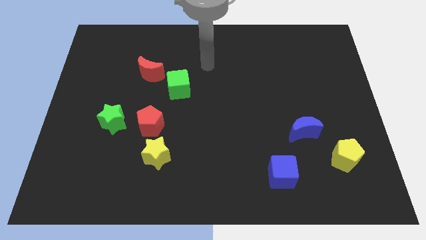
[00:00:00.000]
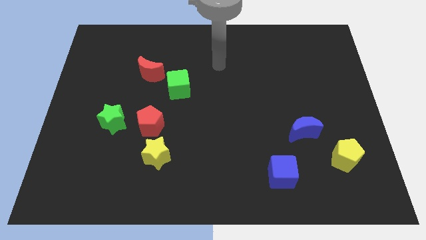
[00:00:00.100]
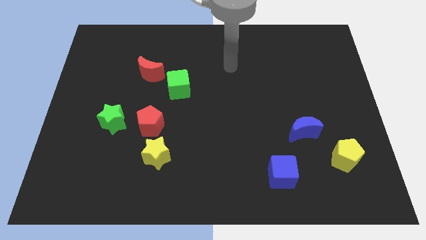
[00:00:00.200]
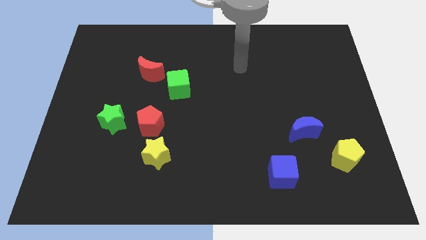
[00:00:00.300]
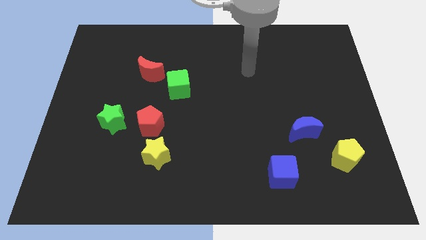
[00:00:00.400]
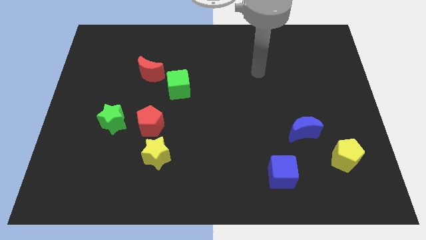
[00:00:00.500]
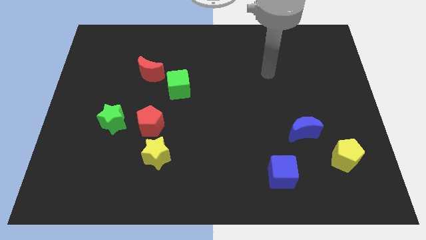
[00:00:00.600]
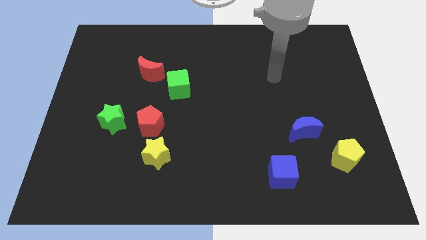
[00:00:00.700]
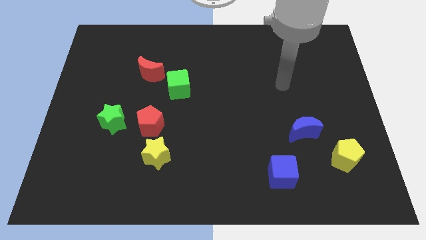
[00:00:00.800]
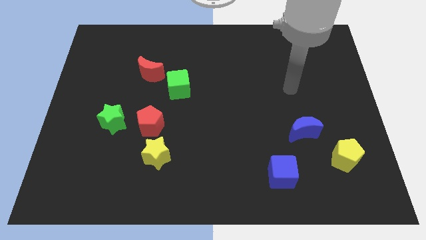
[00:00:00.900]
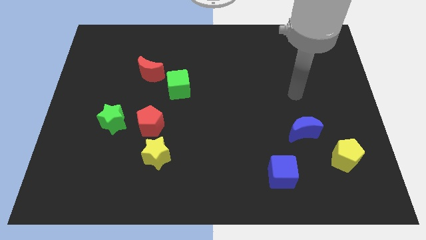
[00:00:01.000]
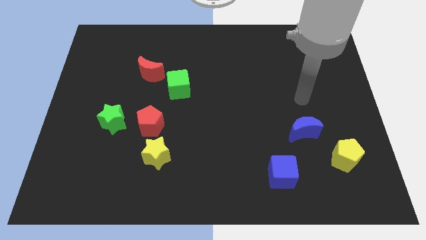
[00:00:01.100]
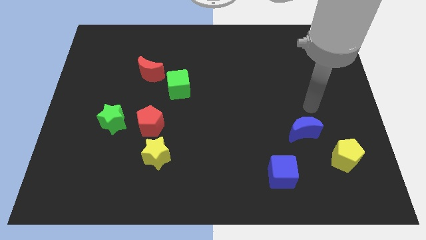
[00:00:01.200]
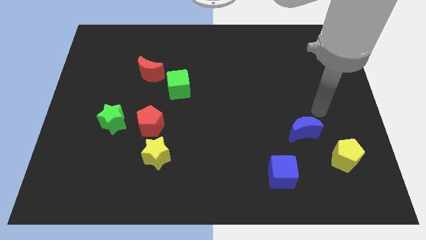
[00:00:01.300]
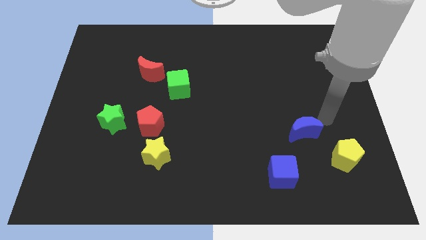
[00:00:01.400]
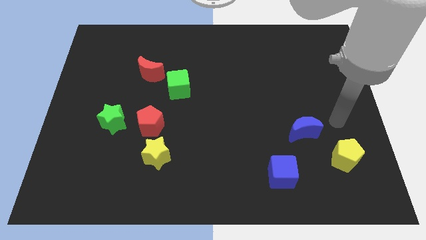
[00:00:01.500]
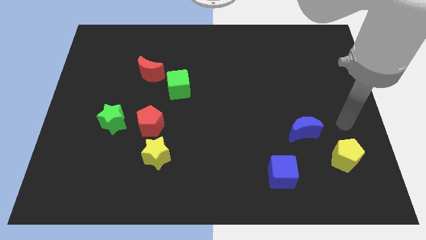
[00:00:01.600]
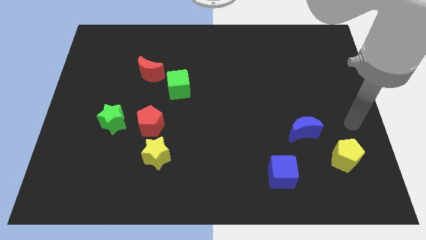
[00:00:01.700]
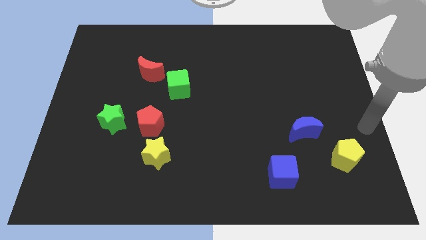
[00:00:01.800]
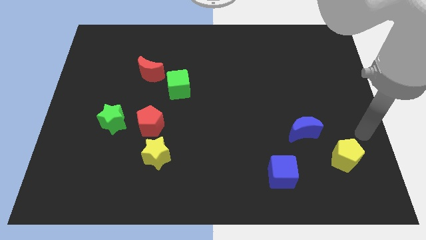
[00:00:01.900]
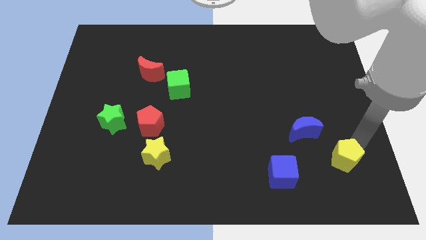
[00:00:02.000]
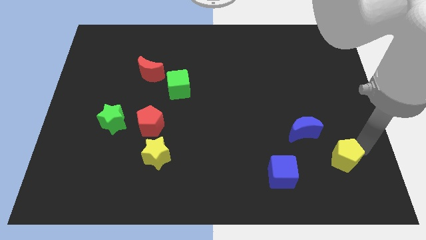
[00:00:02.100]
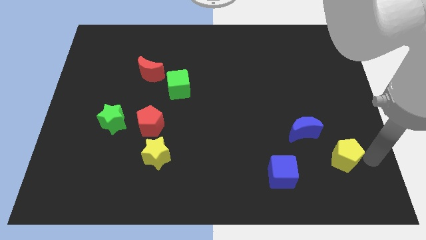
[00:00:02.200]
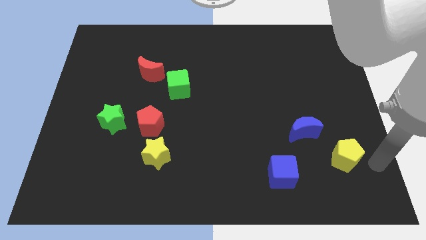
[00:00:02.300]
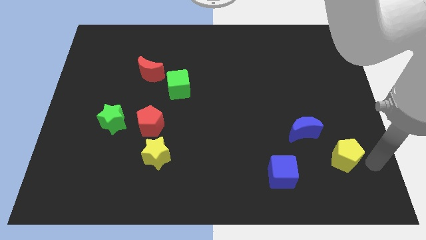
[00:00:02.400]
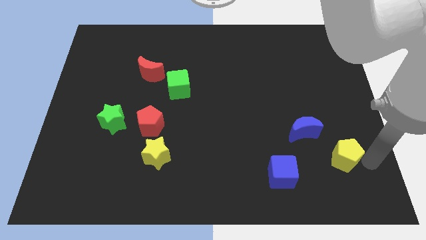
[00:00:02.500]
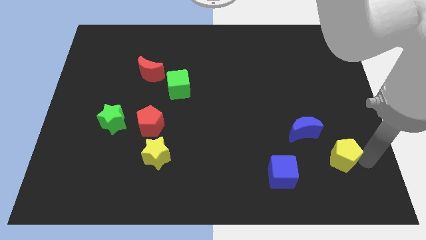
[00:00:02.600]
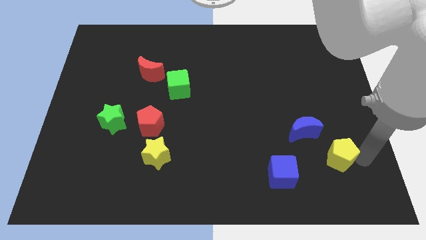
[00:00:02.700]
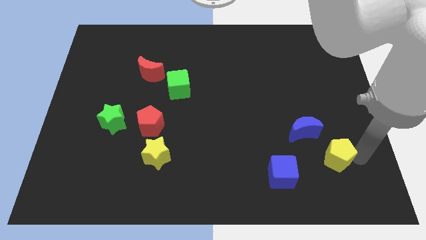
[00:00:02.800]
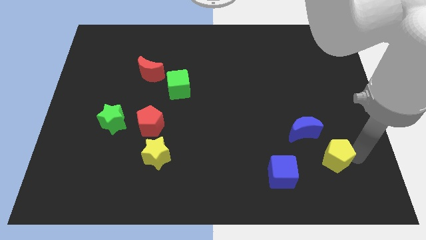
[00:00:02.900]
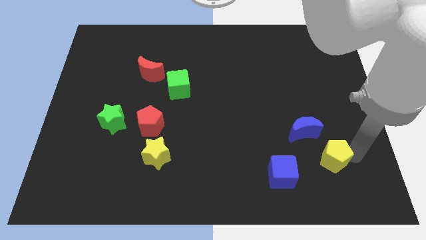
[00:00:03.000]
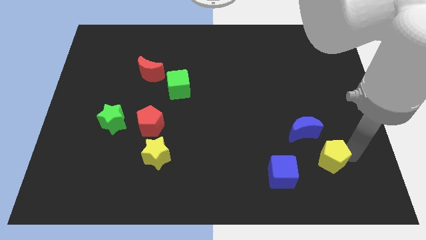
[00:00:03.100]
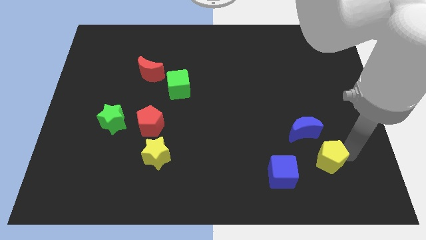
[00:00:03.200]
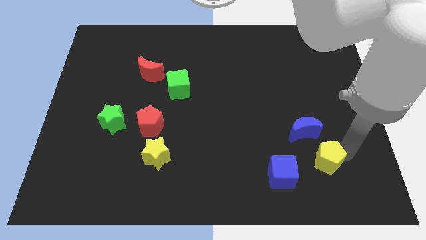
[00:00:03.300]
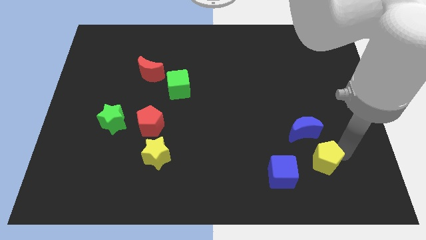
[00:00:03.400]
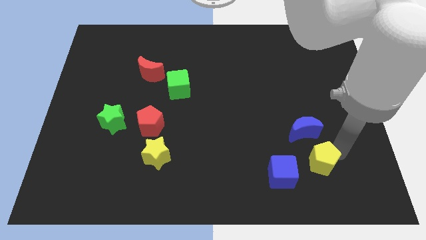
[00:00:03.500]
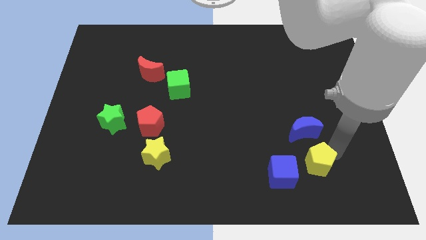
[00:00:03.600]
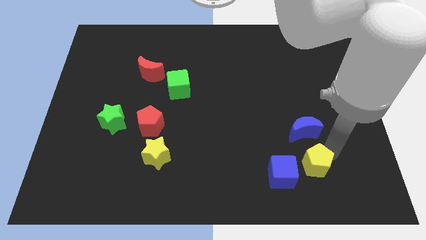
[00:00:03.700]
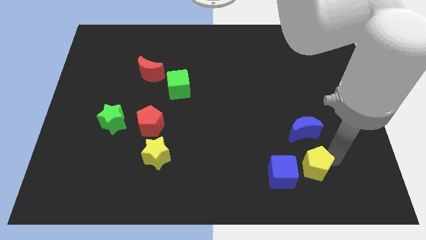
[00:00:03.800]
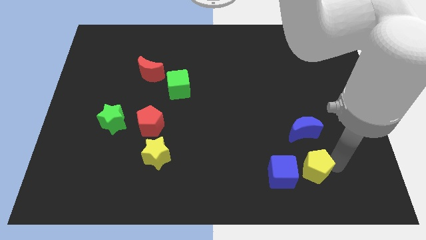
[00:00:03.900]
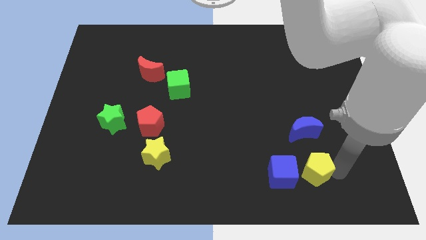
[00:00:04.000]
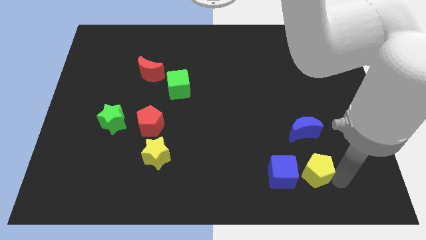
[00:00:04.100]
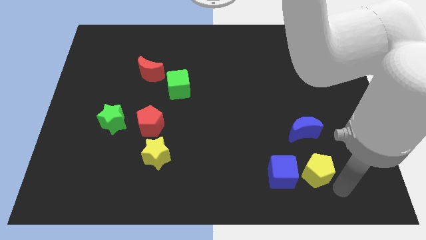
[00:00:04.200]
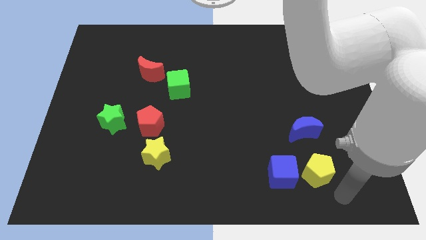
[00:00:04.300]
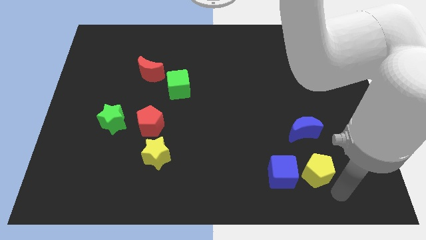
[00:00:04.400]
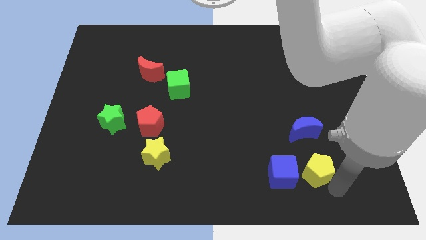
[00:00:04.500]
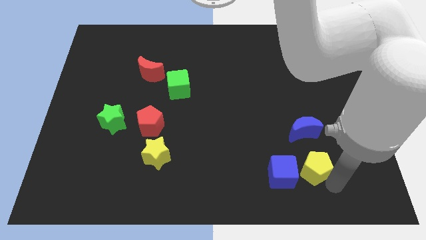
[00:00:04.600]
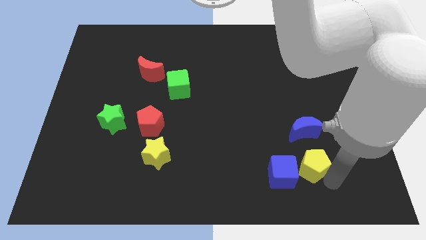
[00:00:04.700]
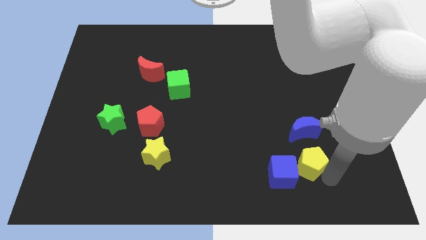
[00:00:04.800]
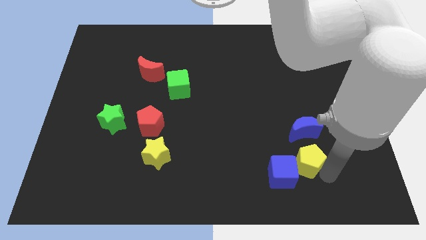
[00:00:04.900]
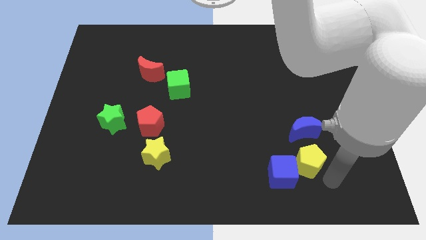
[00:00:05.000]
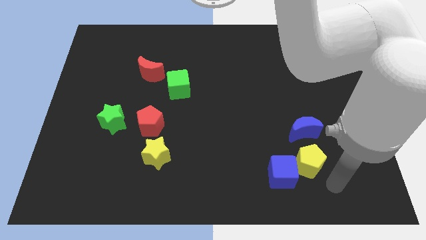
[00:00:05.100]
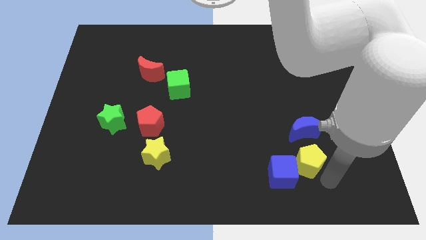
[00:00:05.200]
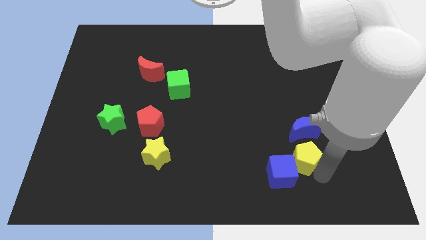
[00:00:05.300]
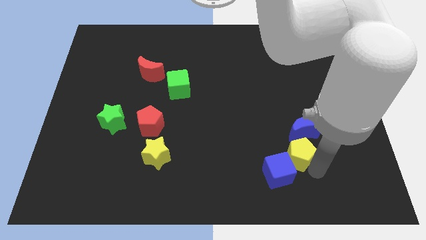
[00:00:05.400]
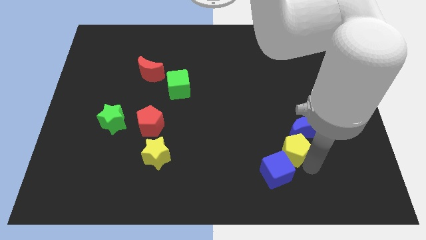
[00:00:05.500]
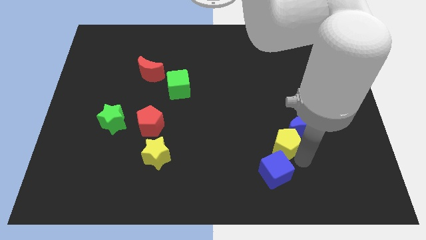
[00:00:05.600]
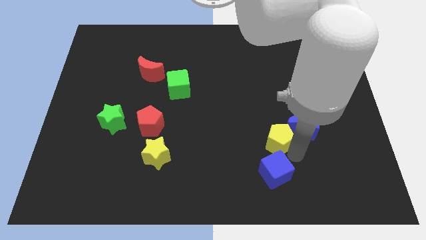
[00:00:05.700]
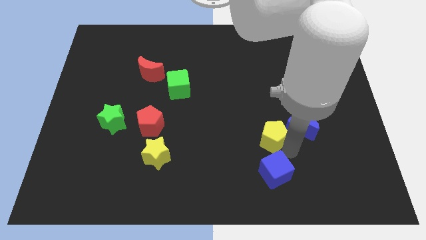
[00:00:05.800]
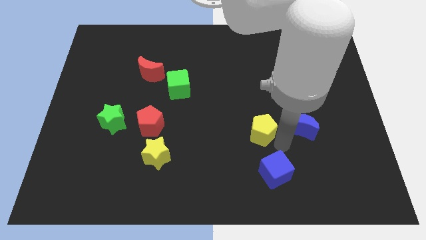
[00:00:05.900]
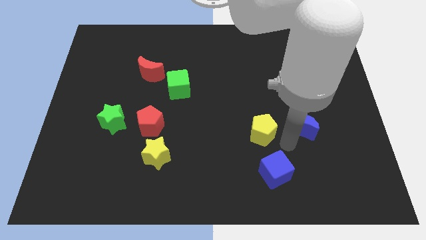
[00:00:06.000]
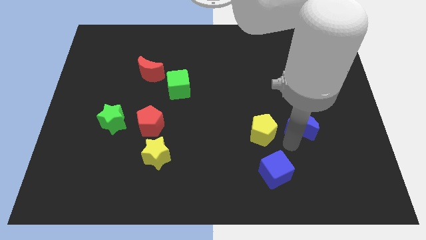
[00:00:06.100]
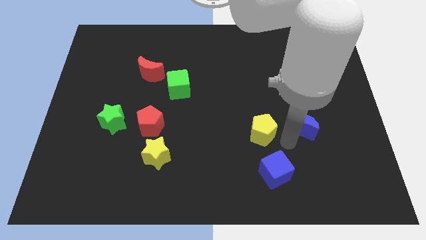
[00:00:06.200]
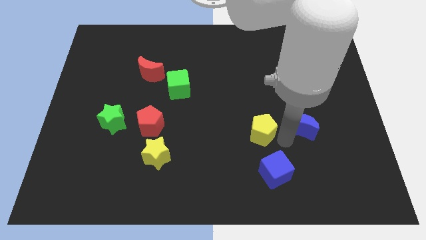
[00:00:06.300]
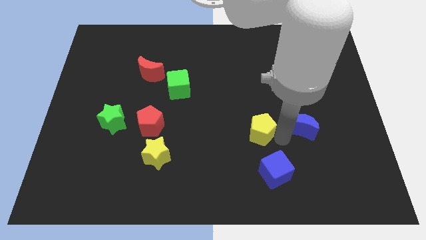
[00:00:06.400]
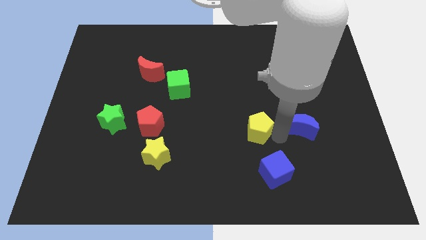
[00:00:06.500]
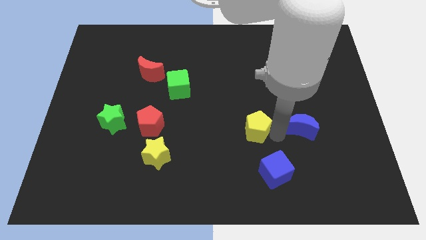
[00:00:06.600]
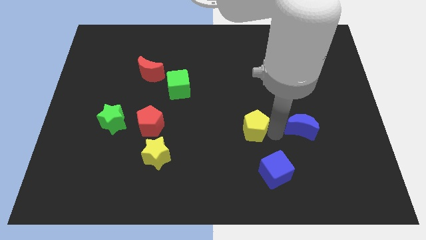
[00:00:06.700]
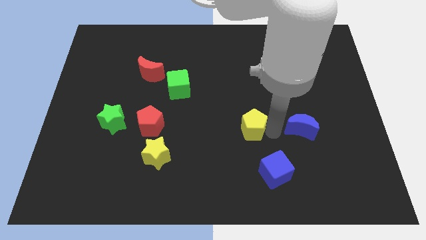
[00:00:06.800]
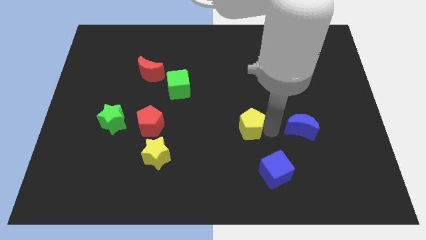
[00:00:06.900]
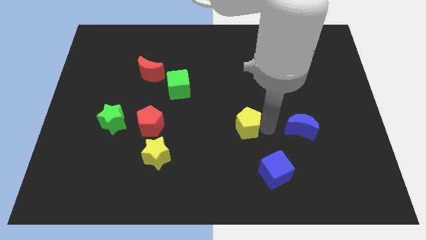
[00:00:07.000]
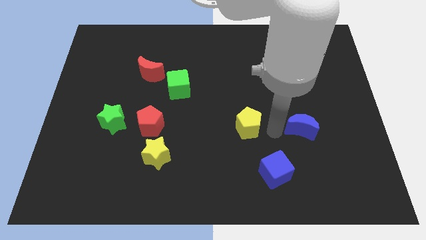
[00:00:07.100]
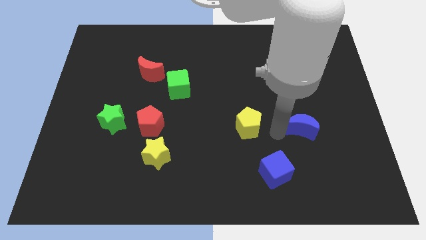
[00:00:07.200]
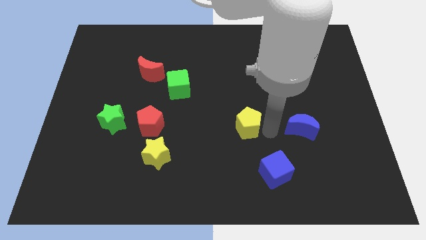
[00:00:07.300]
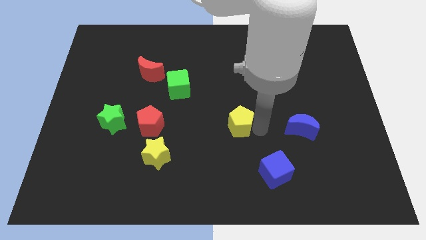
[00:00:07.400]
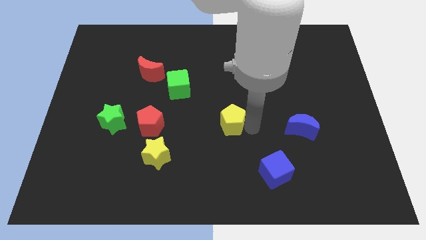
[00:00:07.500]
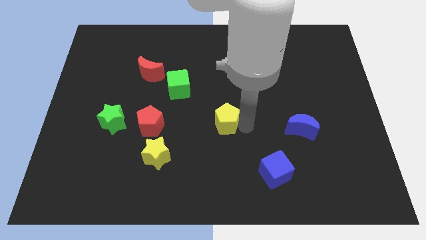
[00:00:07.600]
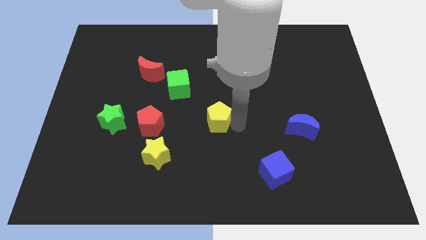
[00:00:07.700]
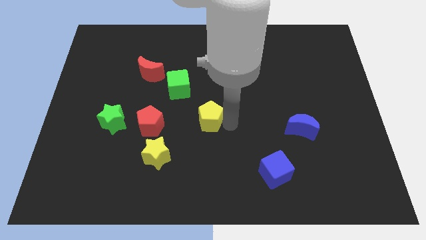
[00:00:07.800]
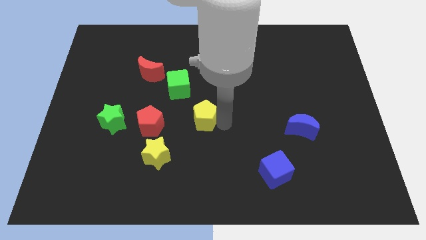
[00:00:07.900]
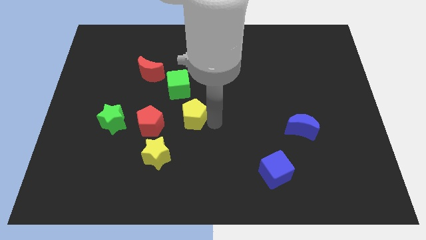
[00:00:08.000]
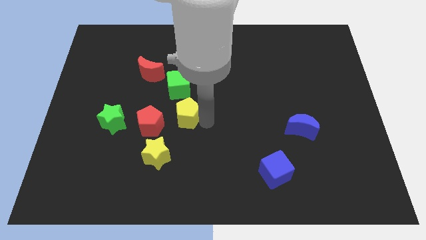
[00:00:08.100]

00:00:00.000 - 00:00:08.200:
push the yellow pentagon diagonally up and to the right of the red pentagon
